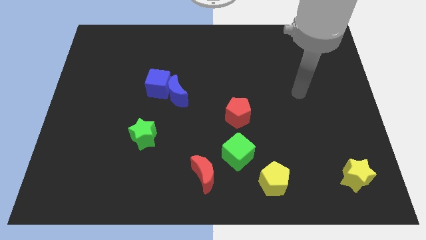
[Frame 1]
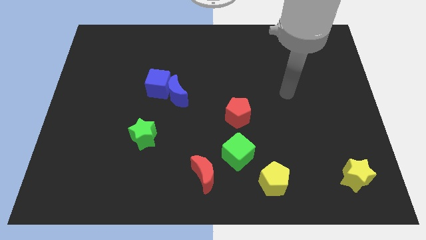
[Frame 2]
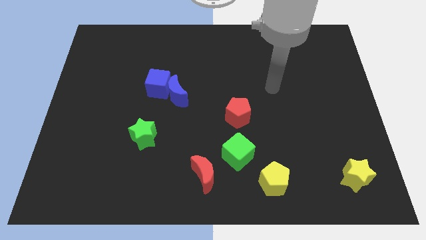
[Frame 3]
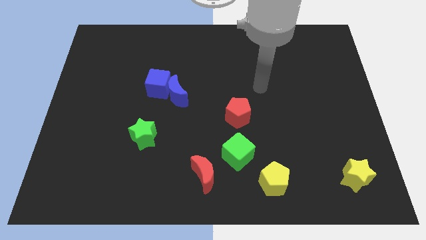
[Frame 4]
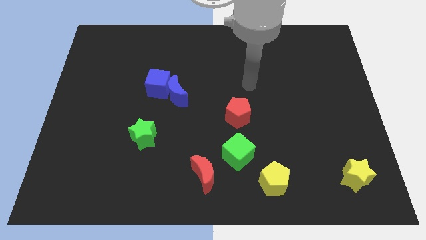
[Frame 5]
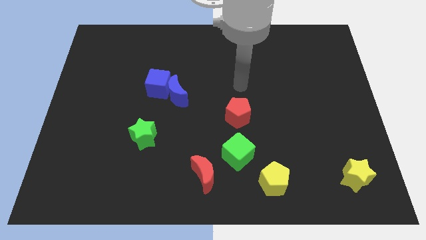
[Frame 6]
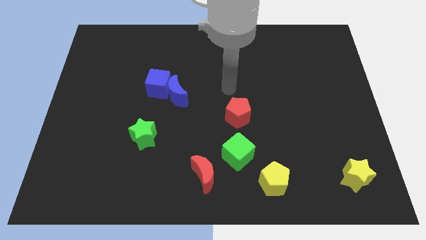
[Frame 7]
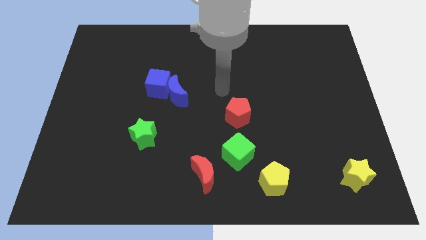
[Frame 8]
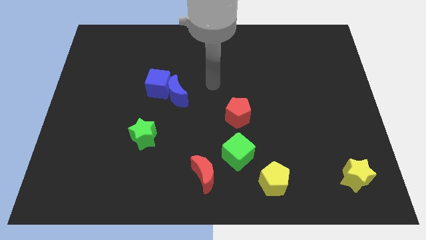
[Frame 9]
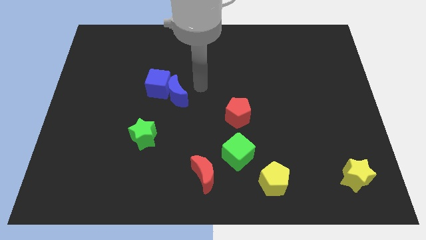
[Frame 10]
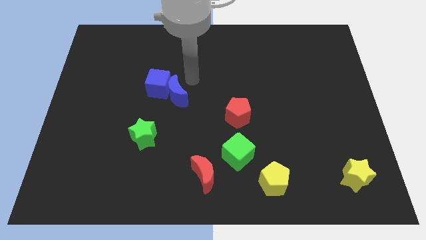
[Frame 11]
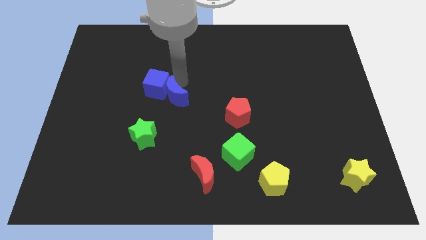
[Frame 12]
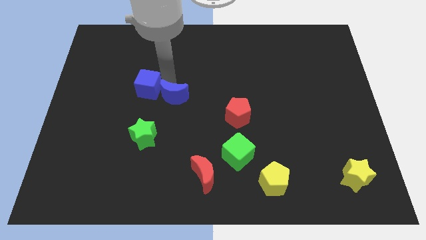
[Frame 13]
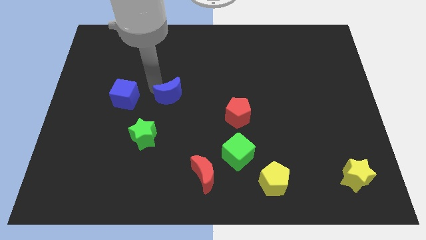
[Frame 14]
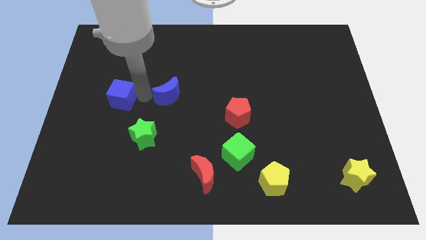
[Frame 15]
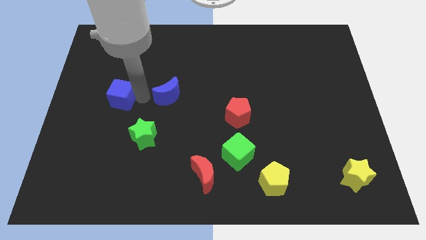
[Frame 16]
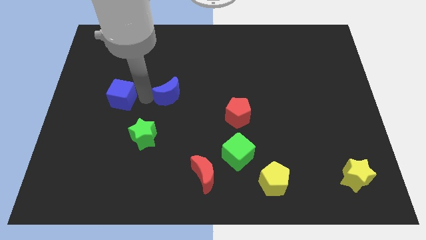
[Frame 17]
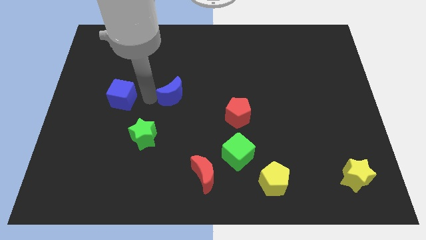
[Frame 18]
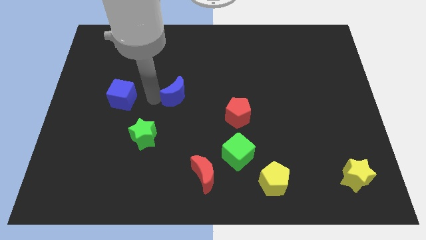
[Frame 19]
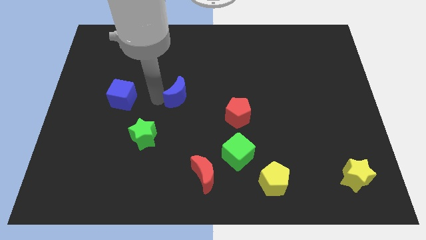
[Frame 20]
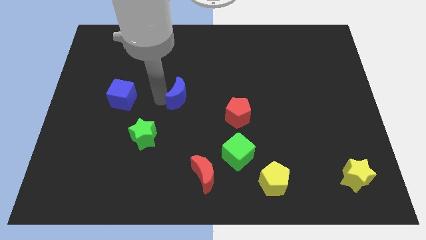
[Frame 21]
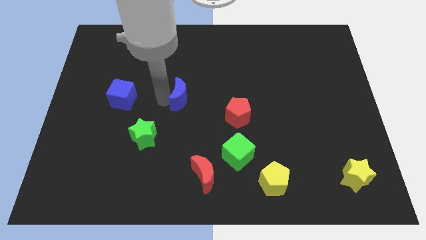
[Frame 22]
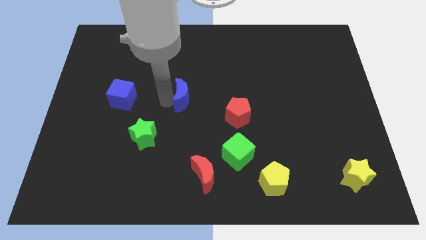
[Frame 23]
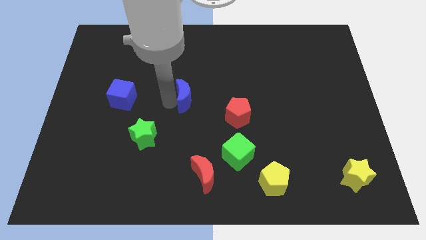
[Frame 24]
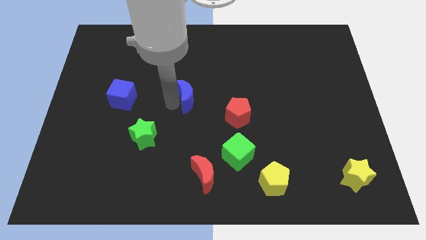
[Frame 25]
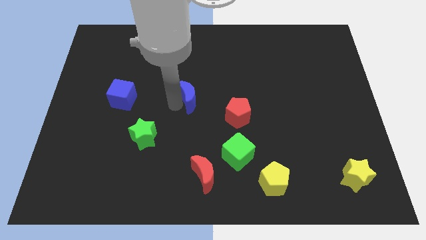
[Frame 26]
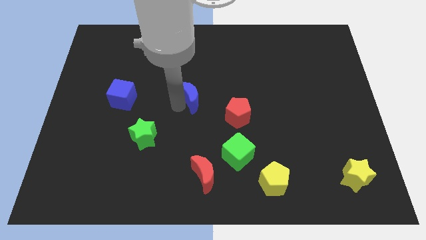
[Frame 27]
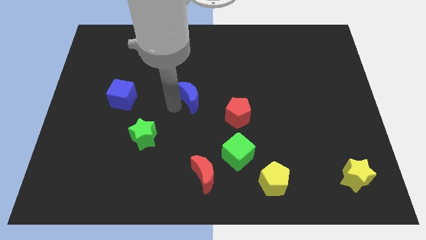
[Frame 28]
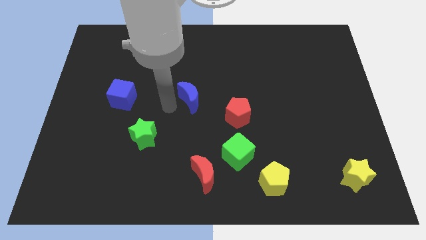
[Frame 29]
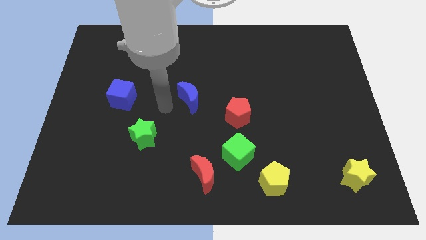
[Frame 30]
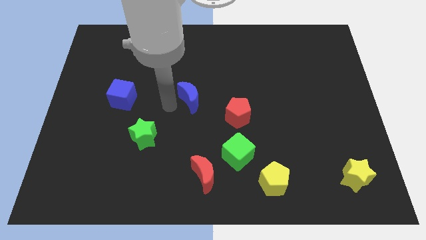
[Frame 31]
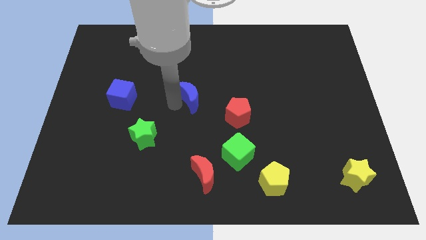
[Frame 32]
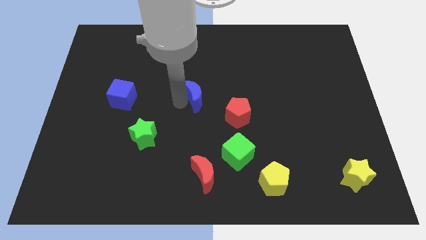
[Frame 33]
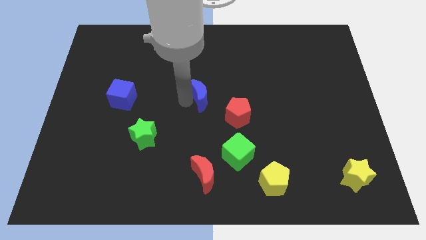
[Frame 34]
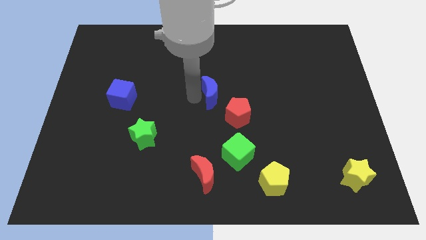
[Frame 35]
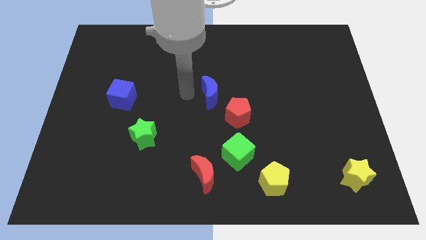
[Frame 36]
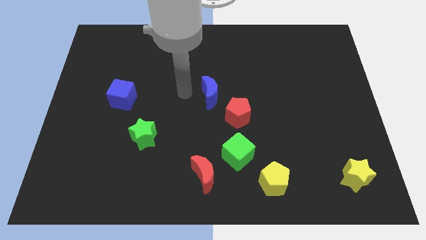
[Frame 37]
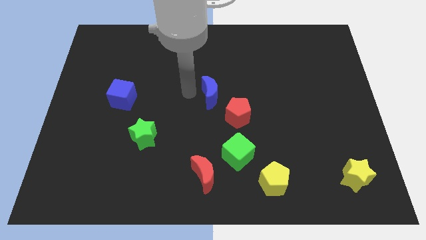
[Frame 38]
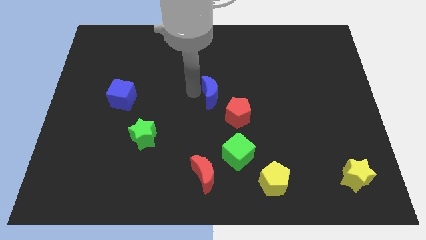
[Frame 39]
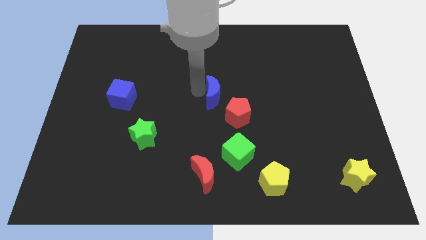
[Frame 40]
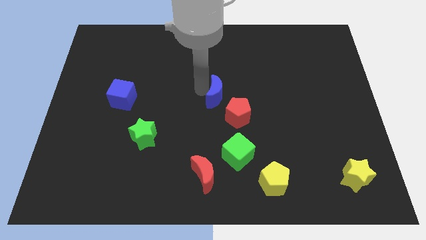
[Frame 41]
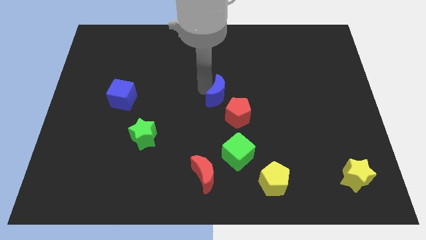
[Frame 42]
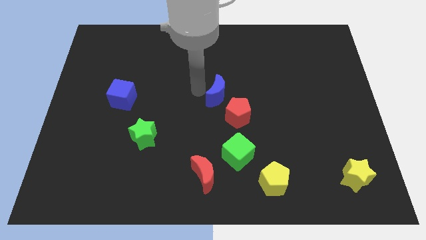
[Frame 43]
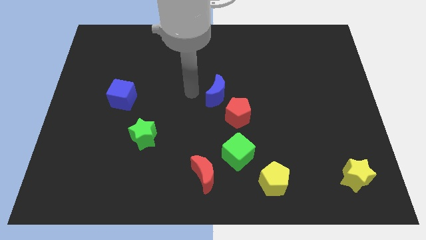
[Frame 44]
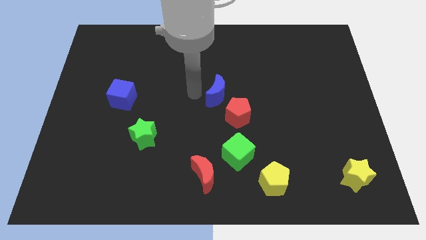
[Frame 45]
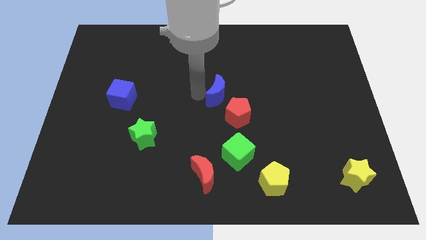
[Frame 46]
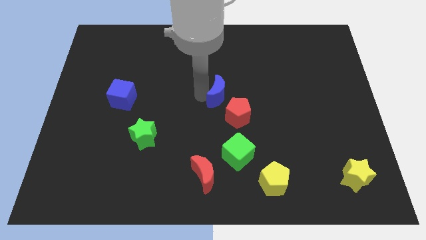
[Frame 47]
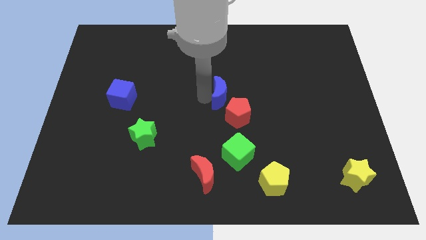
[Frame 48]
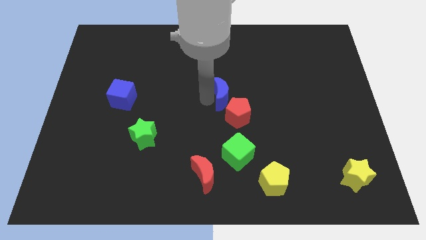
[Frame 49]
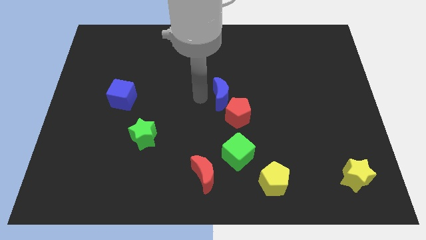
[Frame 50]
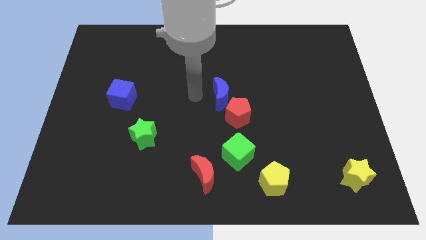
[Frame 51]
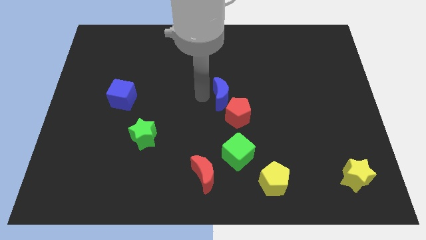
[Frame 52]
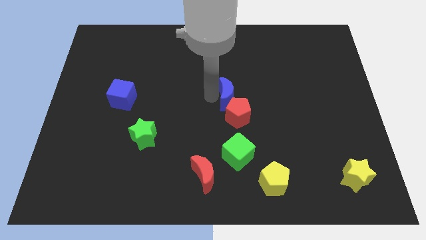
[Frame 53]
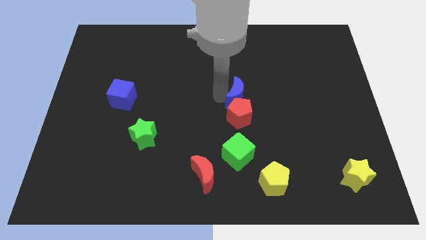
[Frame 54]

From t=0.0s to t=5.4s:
push the blue moon to the top right of the red pentagon

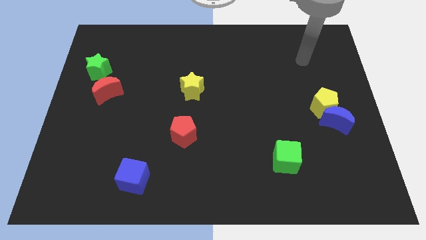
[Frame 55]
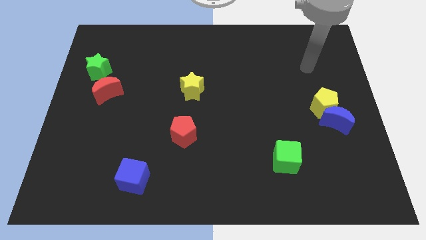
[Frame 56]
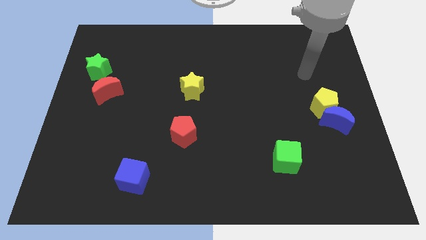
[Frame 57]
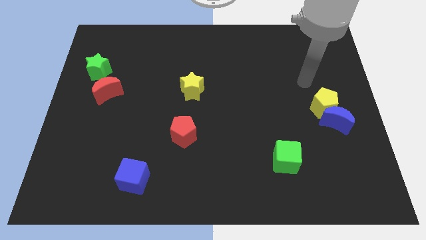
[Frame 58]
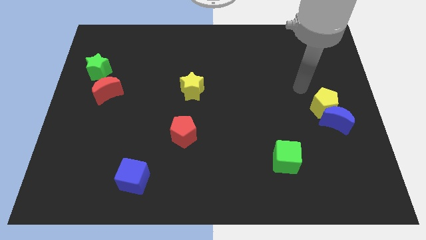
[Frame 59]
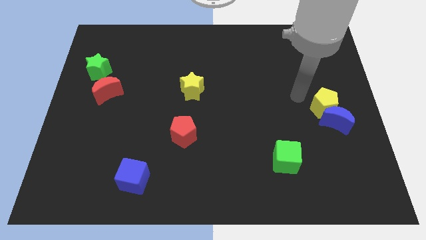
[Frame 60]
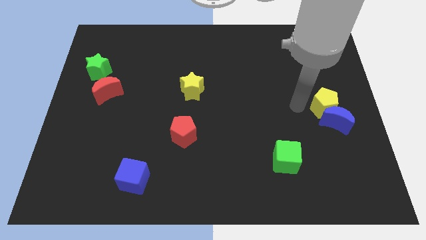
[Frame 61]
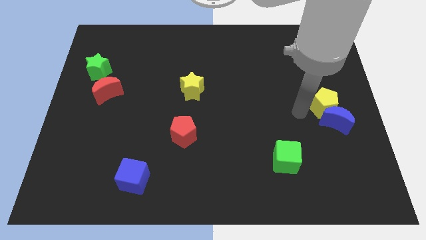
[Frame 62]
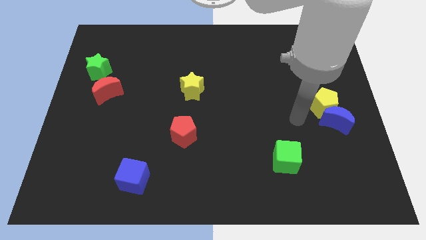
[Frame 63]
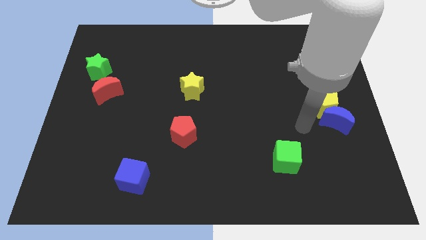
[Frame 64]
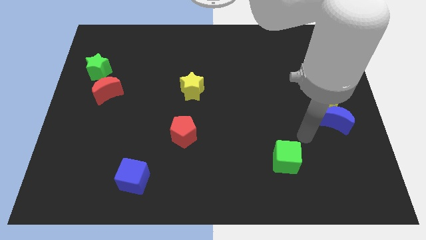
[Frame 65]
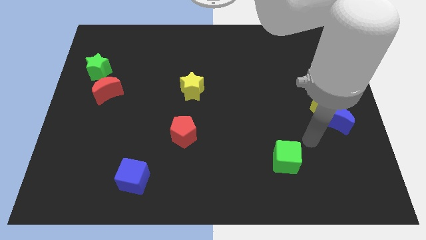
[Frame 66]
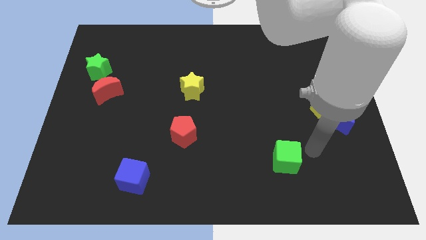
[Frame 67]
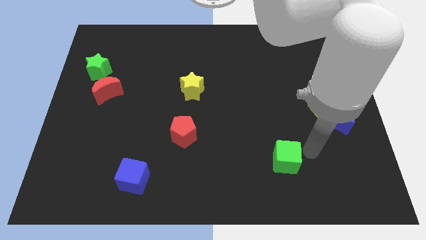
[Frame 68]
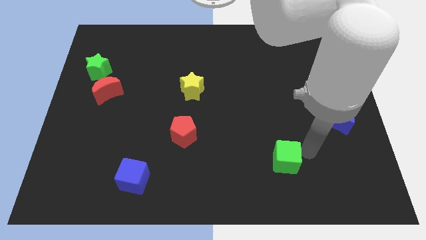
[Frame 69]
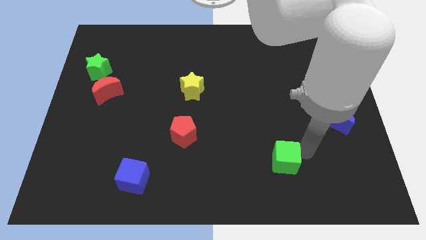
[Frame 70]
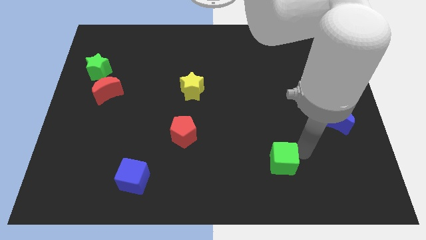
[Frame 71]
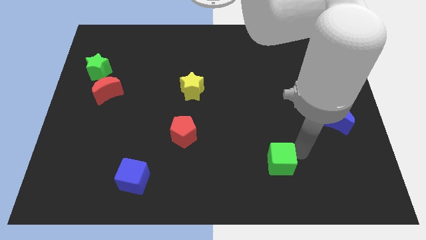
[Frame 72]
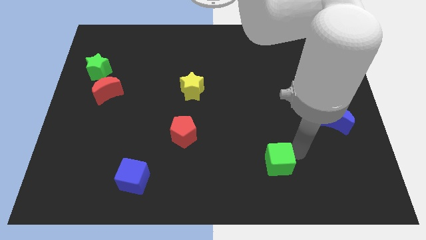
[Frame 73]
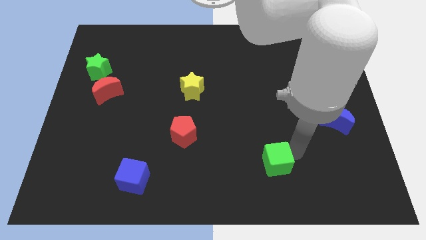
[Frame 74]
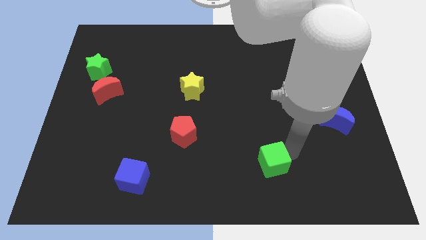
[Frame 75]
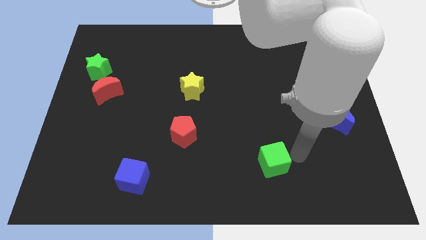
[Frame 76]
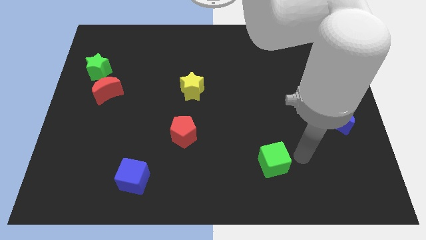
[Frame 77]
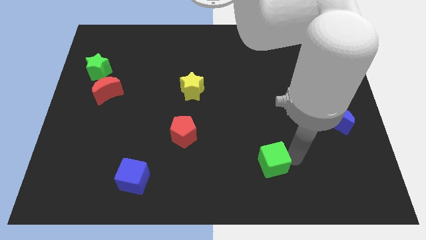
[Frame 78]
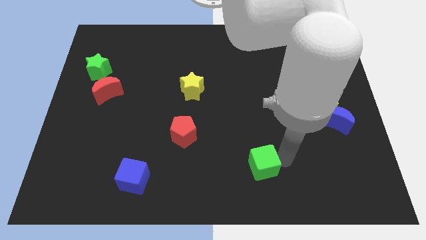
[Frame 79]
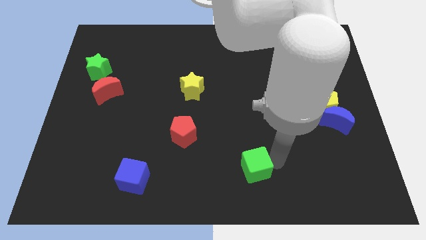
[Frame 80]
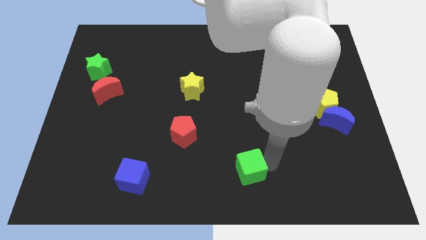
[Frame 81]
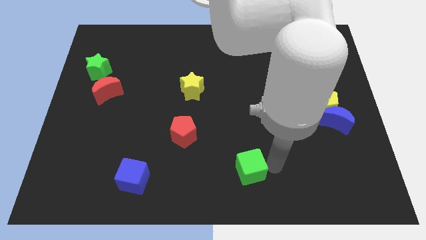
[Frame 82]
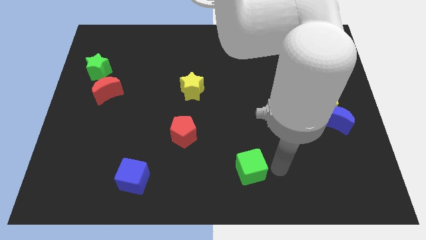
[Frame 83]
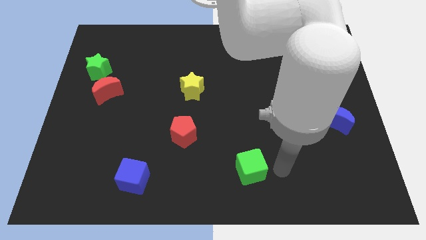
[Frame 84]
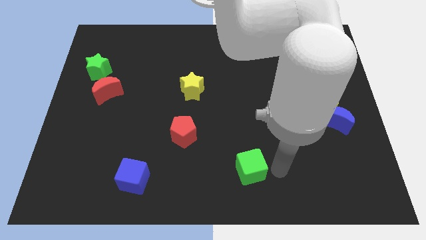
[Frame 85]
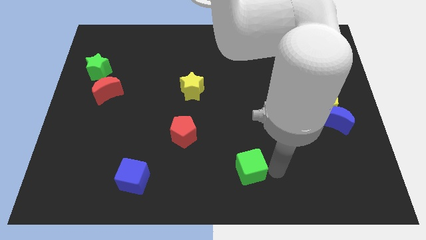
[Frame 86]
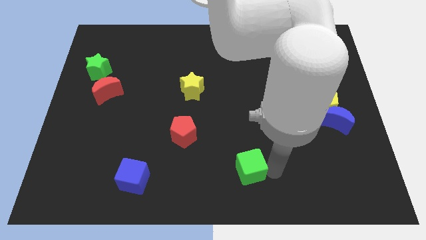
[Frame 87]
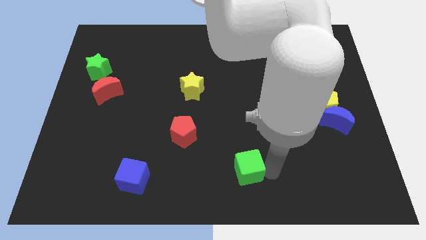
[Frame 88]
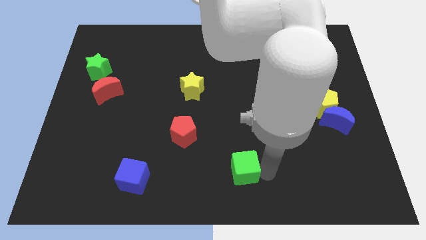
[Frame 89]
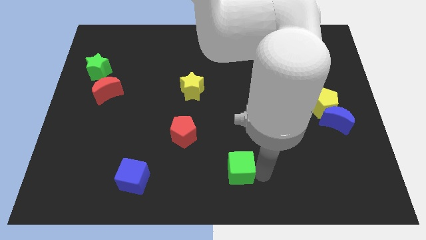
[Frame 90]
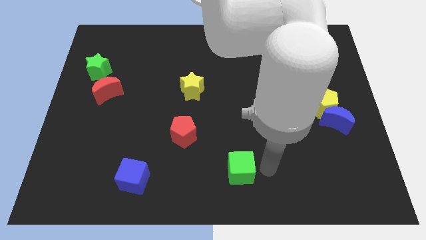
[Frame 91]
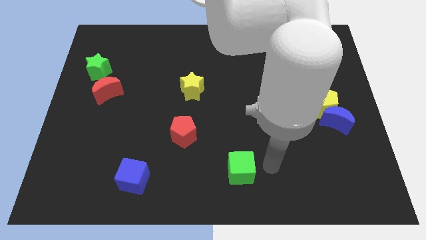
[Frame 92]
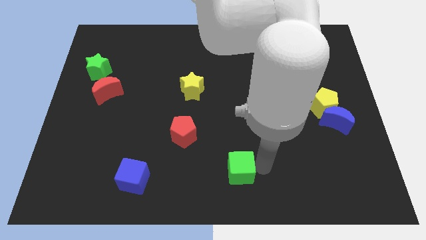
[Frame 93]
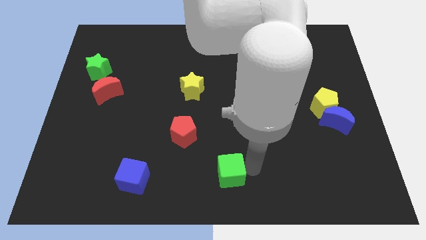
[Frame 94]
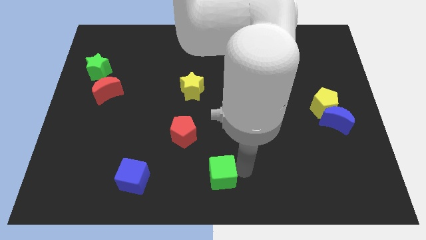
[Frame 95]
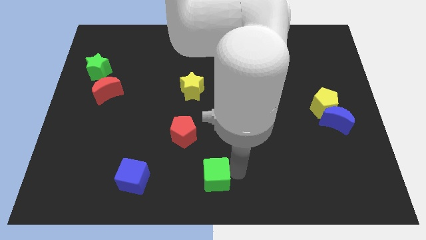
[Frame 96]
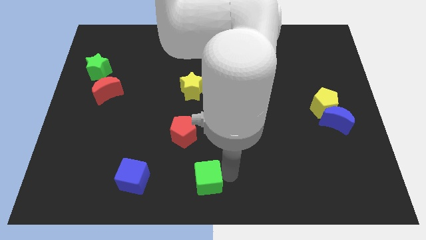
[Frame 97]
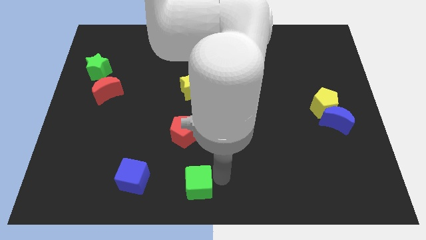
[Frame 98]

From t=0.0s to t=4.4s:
slide the green cube to the bottom of the red pentagon
